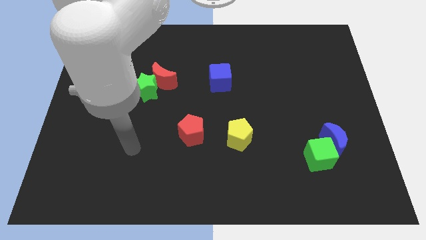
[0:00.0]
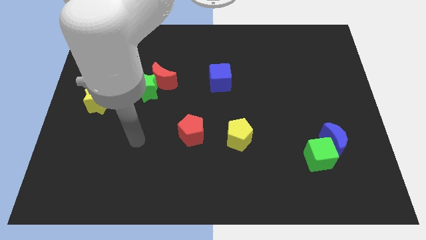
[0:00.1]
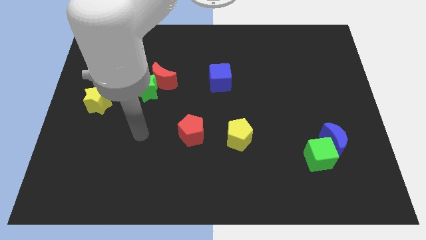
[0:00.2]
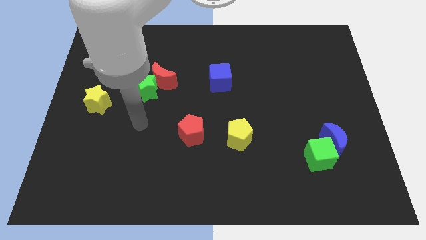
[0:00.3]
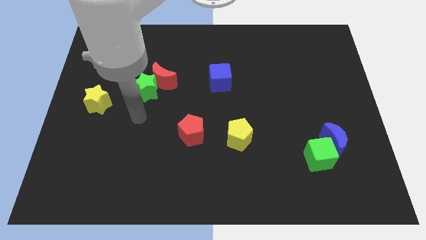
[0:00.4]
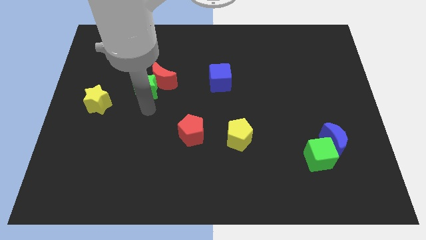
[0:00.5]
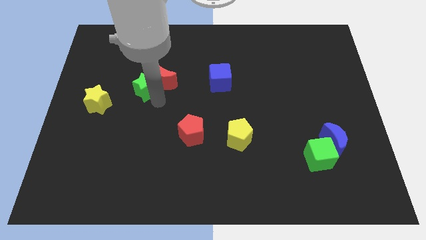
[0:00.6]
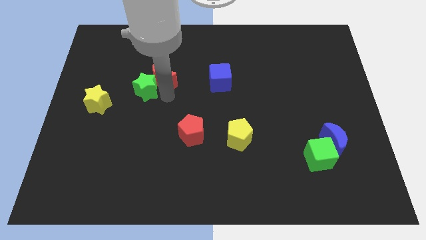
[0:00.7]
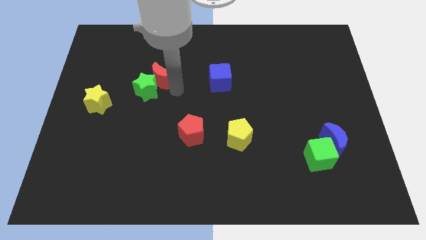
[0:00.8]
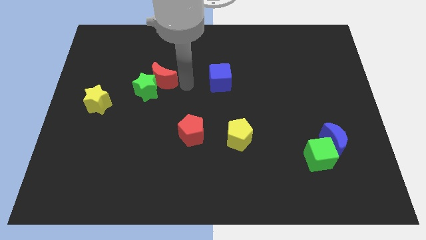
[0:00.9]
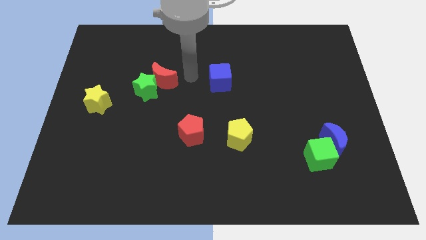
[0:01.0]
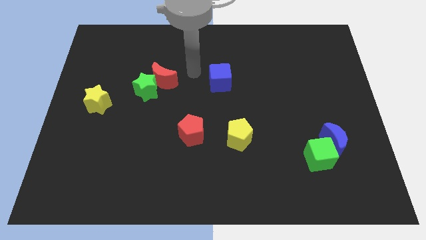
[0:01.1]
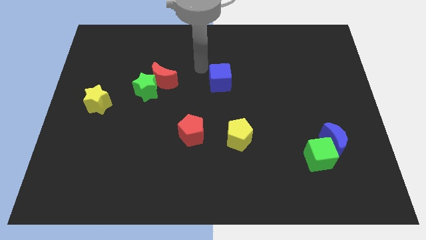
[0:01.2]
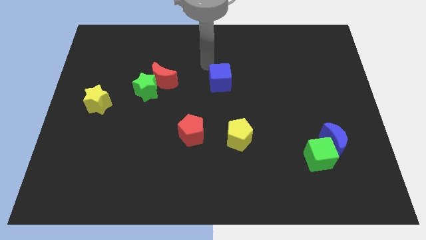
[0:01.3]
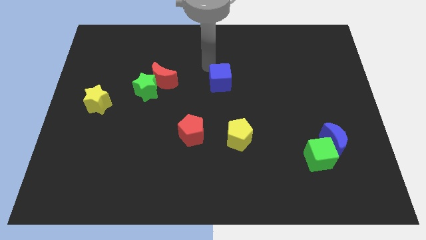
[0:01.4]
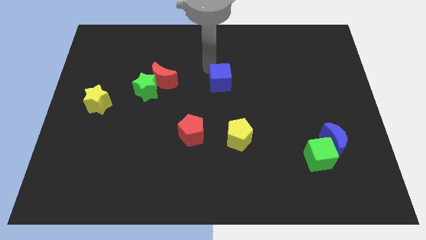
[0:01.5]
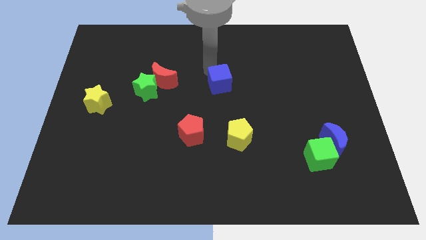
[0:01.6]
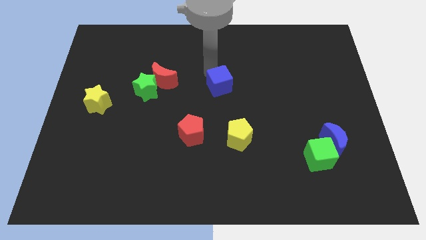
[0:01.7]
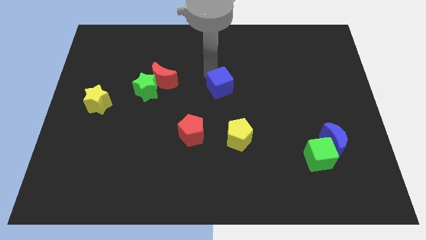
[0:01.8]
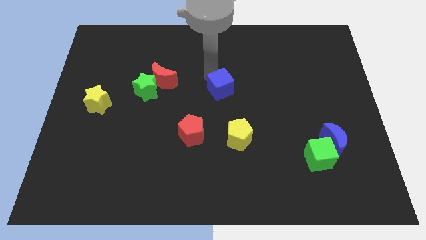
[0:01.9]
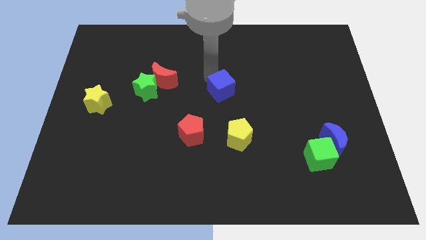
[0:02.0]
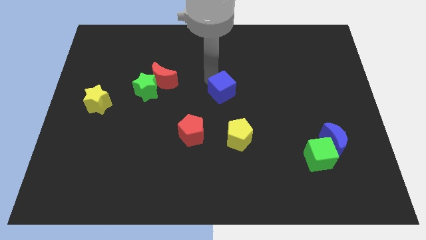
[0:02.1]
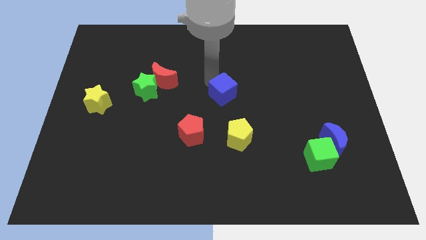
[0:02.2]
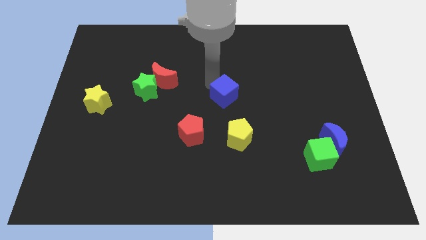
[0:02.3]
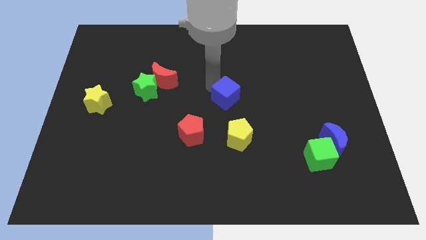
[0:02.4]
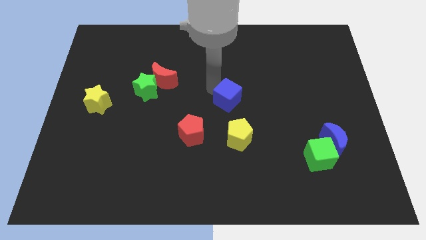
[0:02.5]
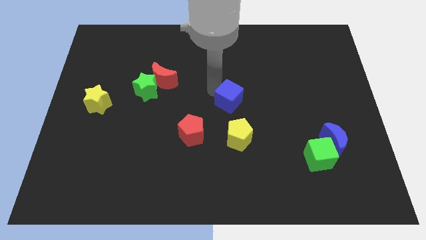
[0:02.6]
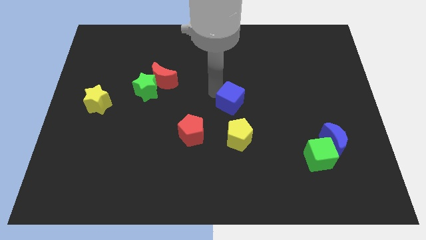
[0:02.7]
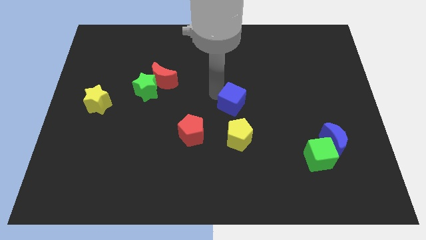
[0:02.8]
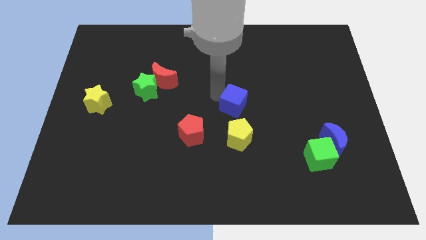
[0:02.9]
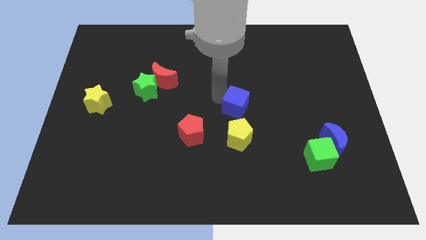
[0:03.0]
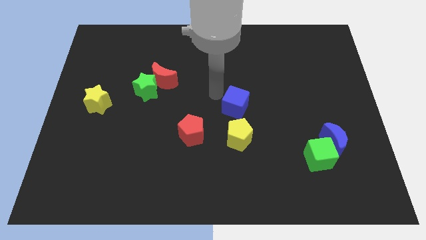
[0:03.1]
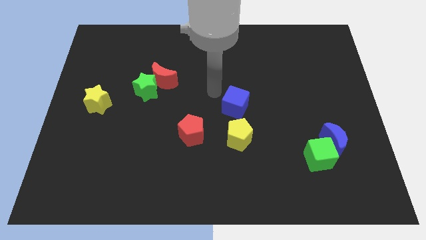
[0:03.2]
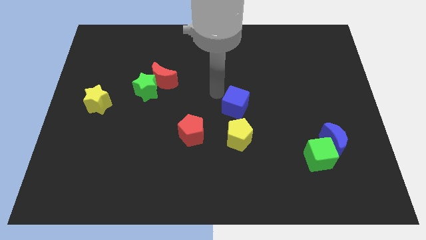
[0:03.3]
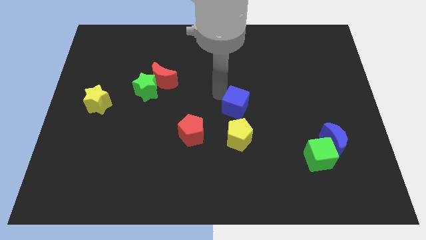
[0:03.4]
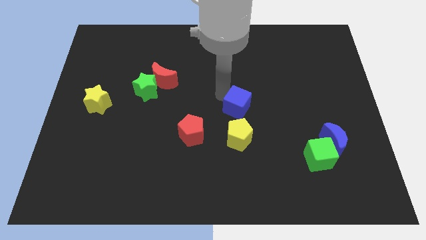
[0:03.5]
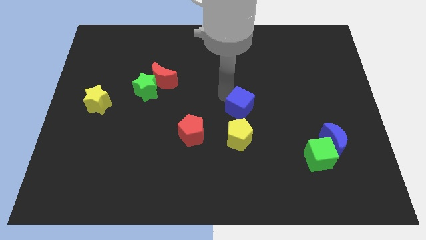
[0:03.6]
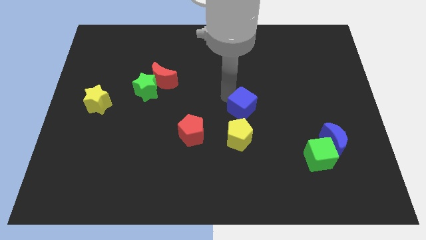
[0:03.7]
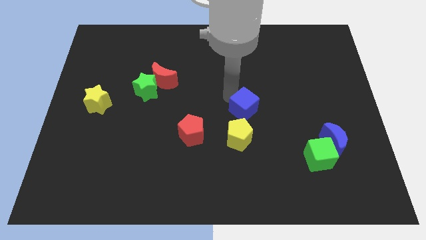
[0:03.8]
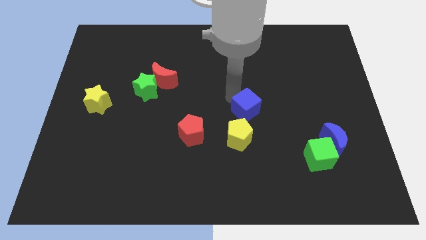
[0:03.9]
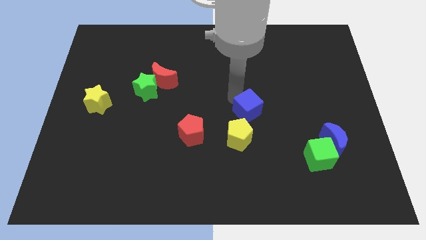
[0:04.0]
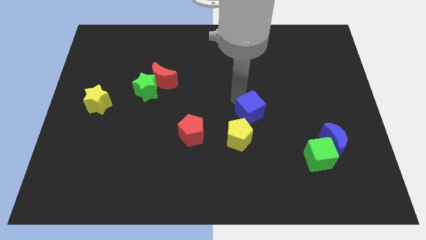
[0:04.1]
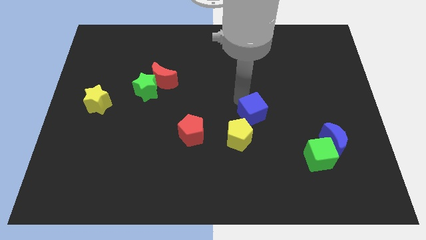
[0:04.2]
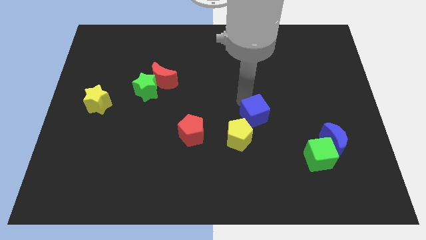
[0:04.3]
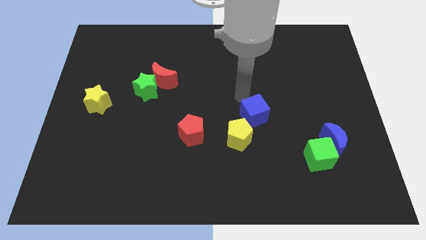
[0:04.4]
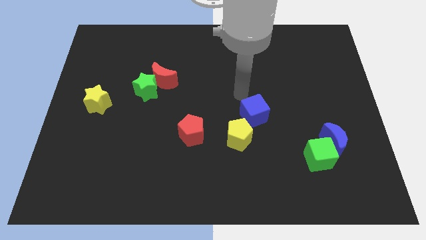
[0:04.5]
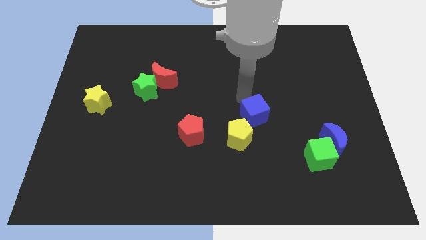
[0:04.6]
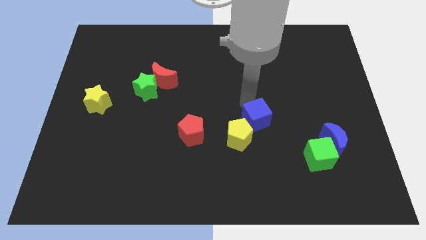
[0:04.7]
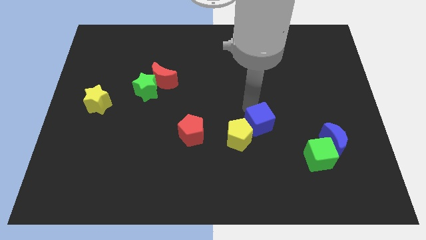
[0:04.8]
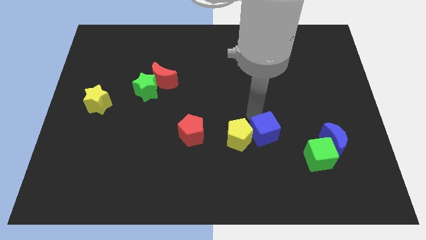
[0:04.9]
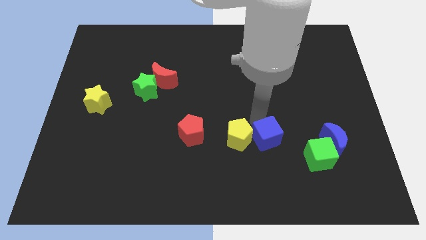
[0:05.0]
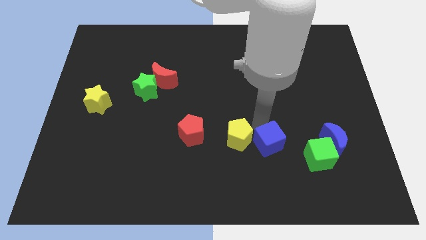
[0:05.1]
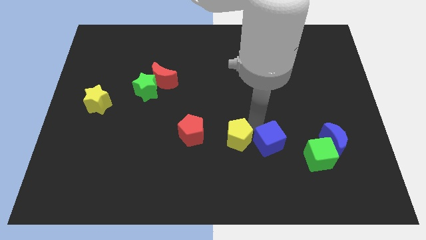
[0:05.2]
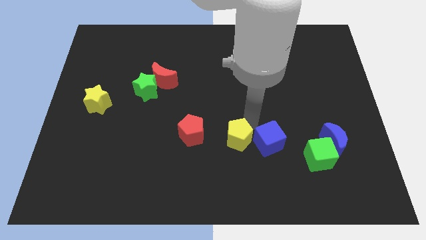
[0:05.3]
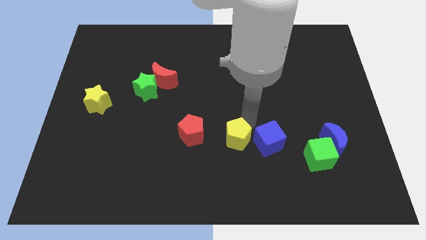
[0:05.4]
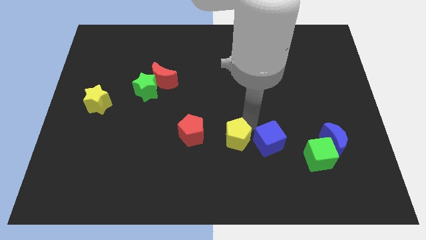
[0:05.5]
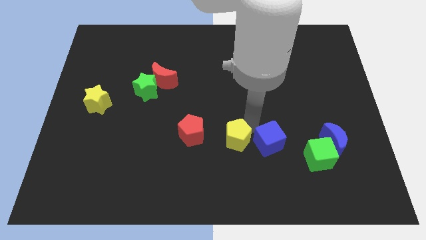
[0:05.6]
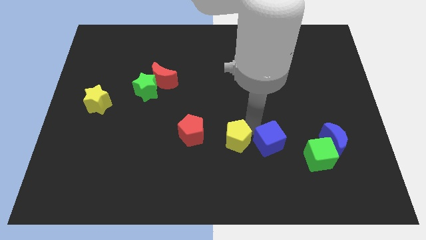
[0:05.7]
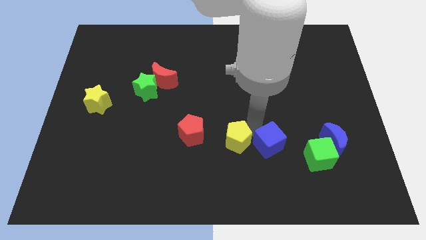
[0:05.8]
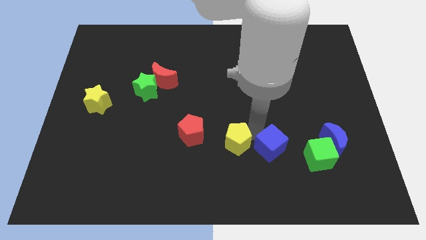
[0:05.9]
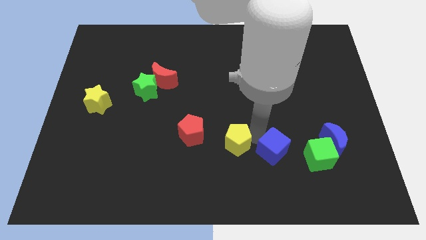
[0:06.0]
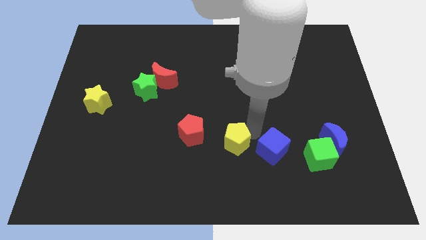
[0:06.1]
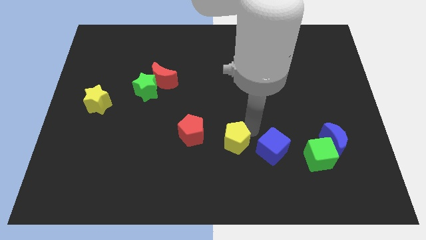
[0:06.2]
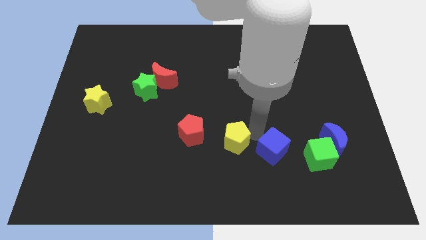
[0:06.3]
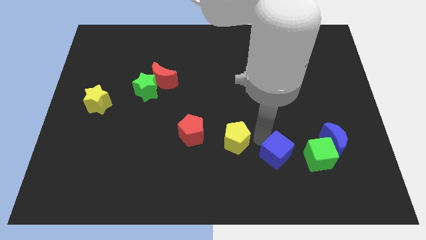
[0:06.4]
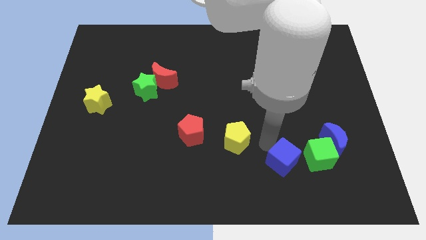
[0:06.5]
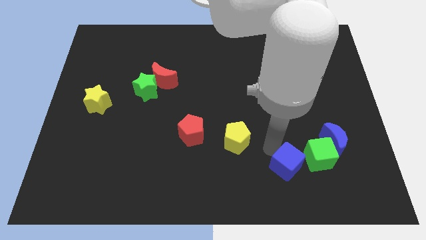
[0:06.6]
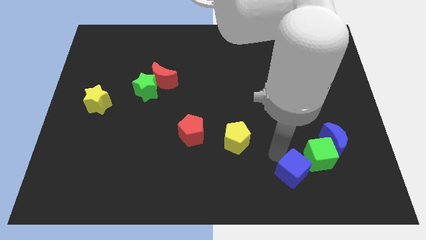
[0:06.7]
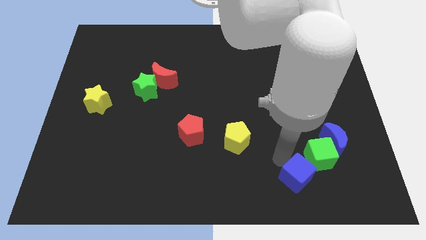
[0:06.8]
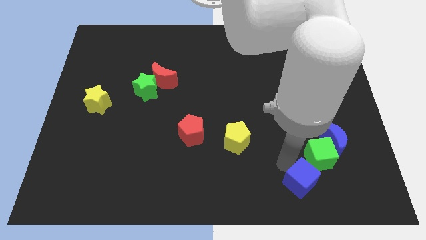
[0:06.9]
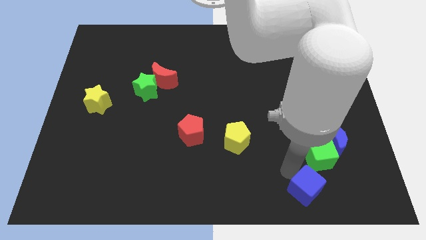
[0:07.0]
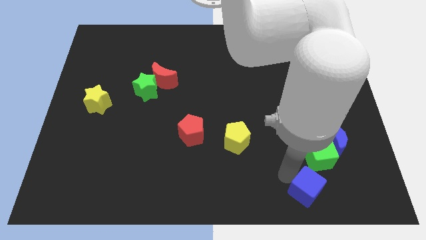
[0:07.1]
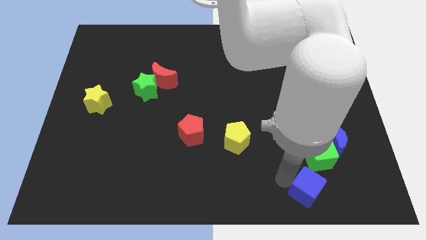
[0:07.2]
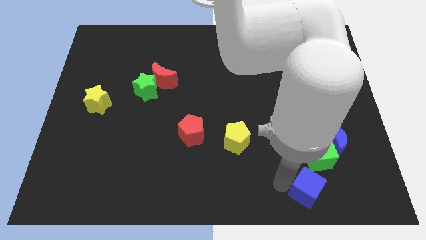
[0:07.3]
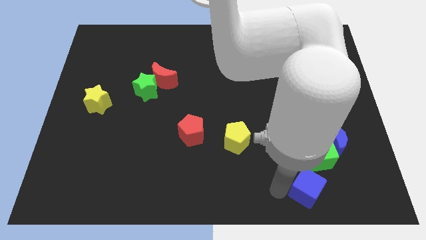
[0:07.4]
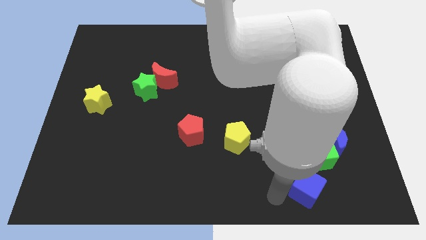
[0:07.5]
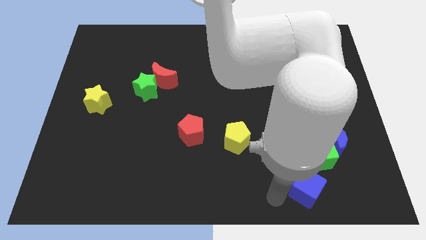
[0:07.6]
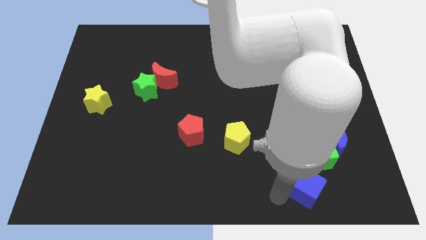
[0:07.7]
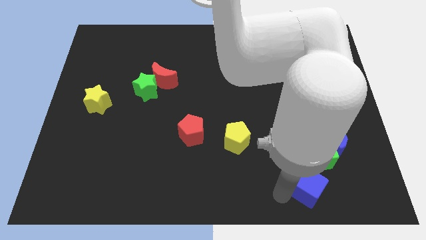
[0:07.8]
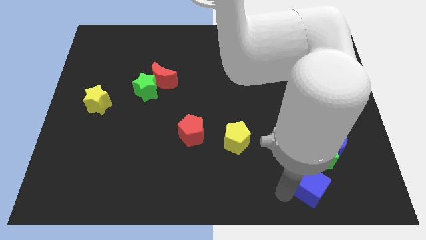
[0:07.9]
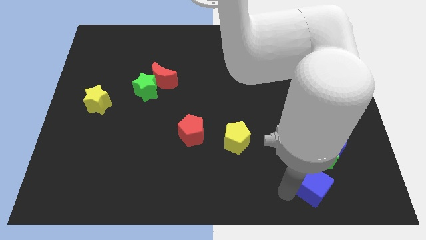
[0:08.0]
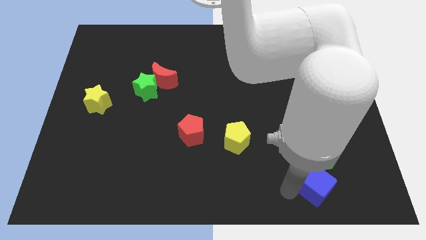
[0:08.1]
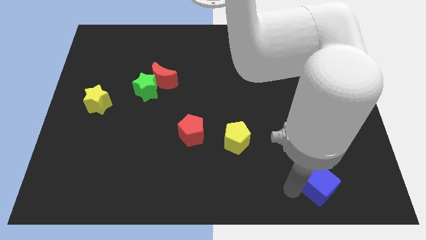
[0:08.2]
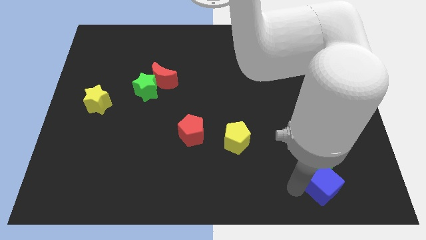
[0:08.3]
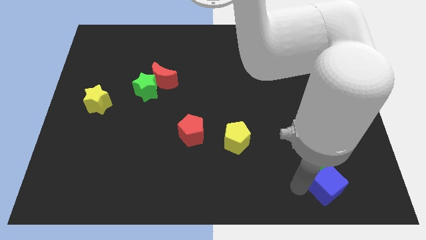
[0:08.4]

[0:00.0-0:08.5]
slide the blue cube to the bottom right of the green cube
